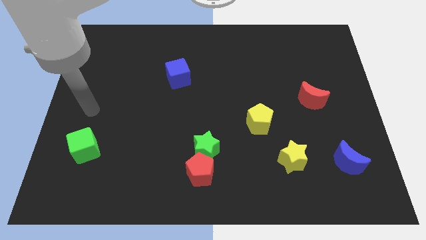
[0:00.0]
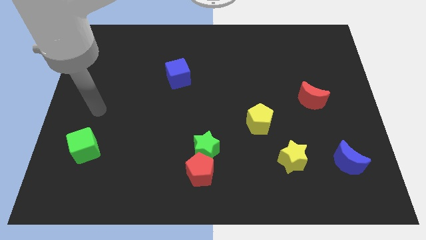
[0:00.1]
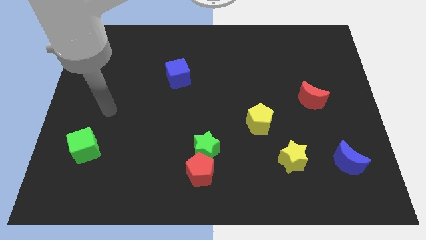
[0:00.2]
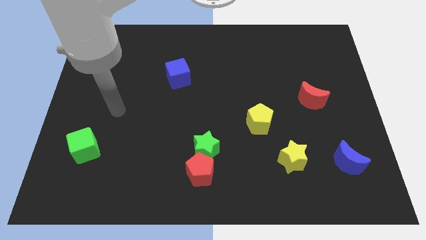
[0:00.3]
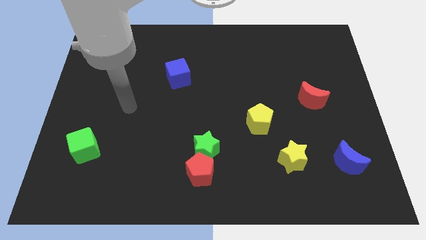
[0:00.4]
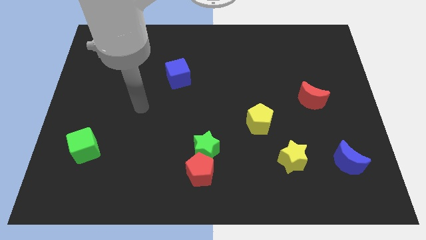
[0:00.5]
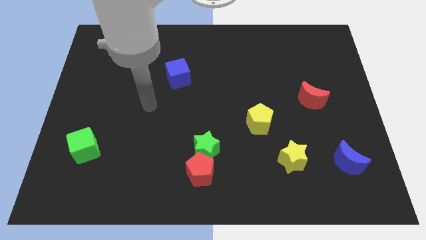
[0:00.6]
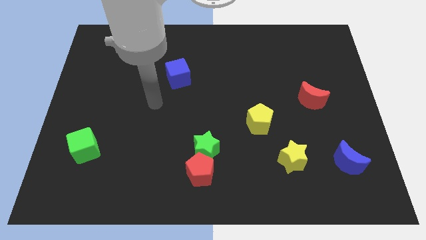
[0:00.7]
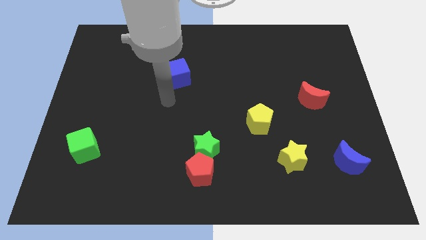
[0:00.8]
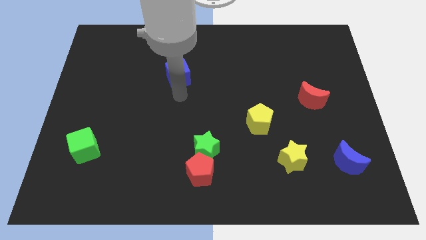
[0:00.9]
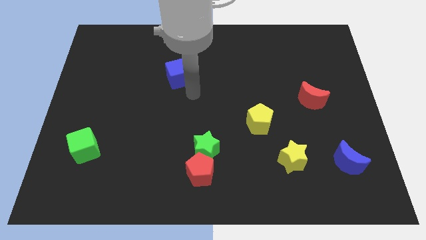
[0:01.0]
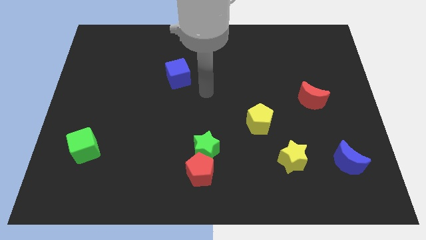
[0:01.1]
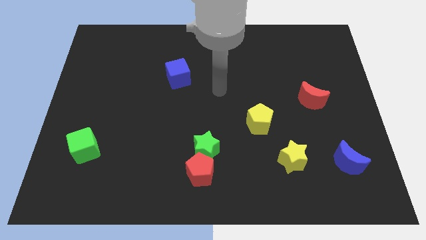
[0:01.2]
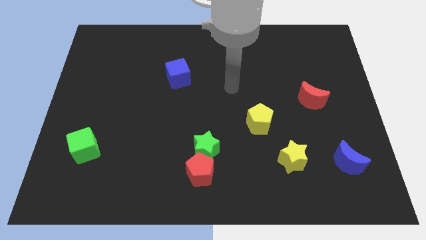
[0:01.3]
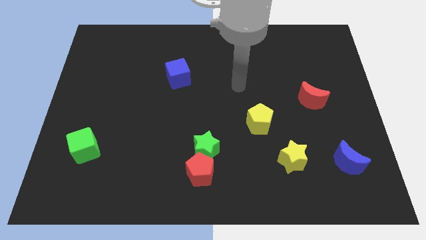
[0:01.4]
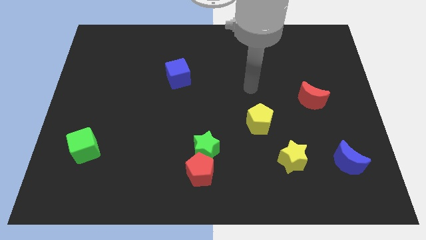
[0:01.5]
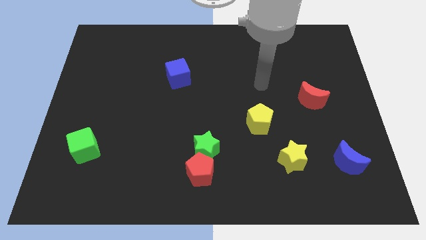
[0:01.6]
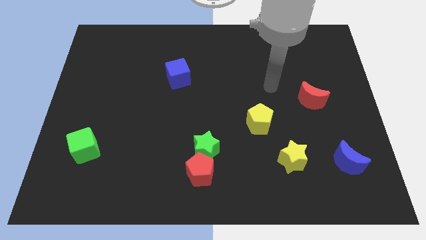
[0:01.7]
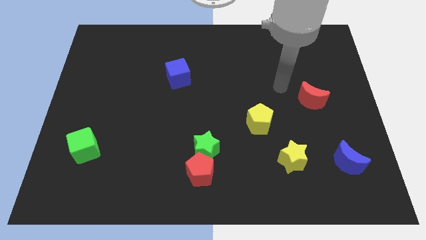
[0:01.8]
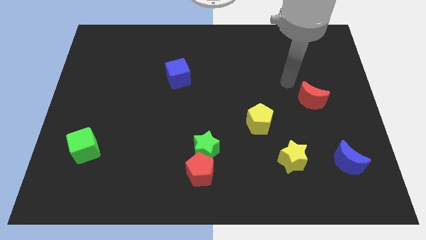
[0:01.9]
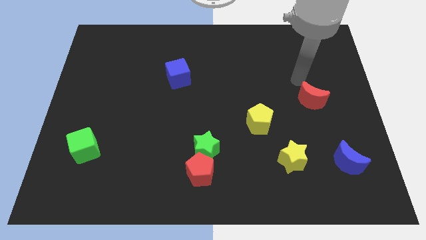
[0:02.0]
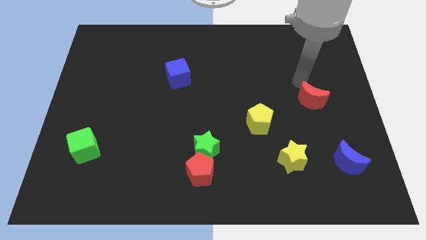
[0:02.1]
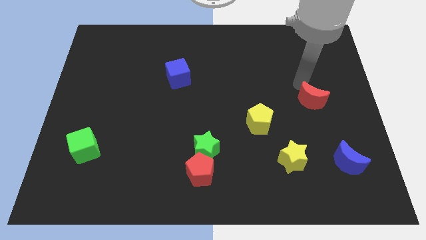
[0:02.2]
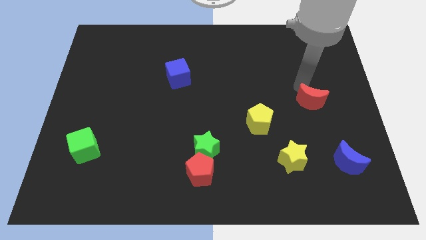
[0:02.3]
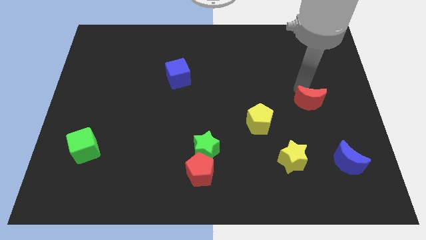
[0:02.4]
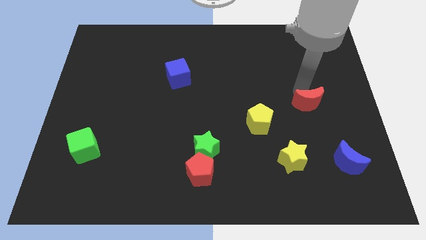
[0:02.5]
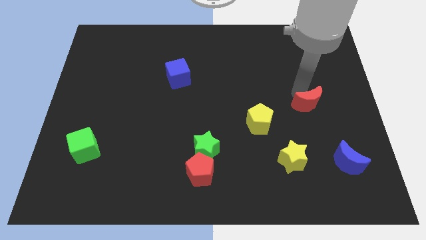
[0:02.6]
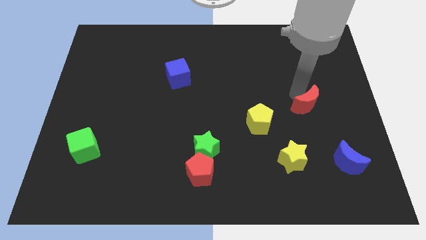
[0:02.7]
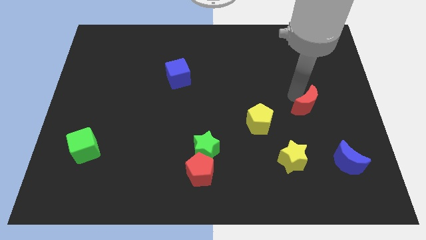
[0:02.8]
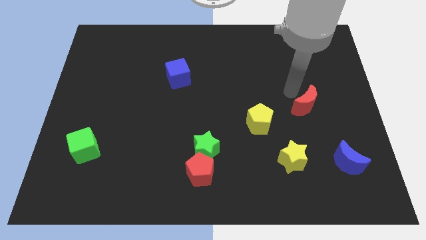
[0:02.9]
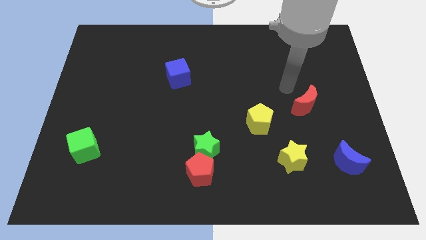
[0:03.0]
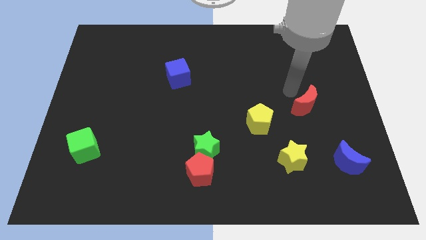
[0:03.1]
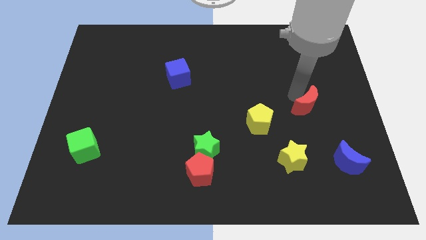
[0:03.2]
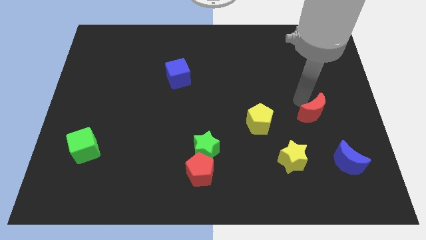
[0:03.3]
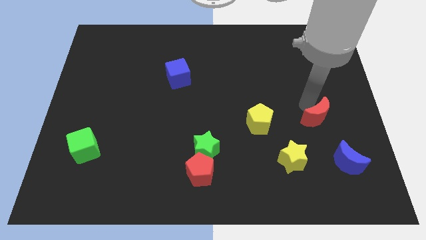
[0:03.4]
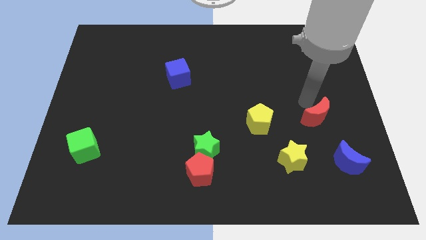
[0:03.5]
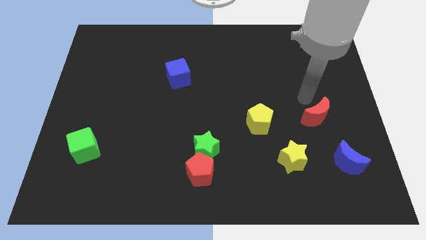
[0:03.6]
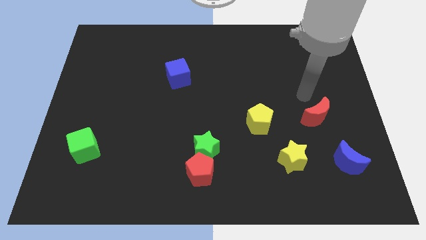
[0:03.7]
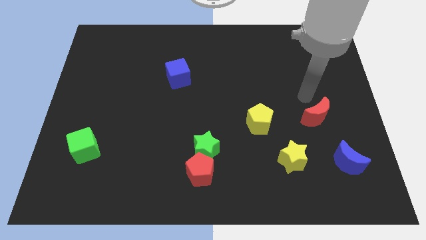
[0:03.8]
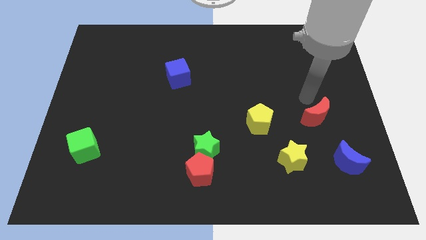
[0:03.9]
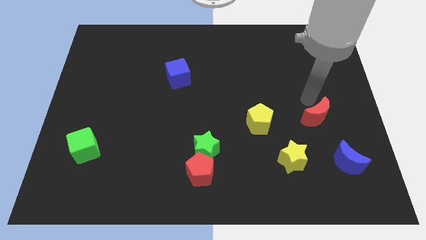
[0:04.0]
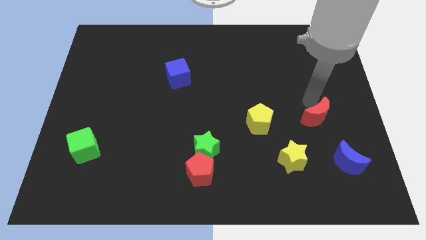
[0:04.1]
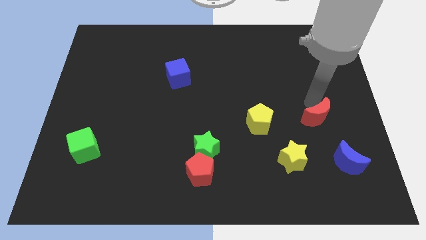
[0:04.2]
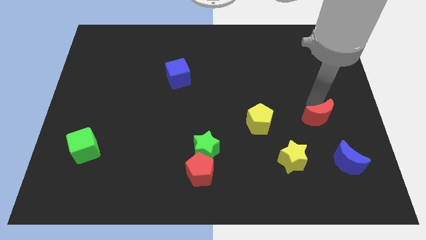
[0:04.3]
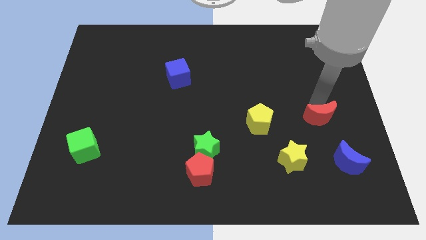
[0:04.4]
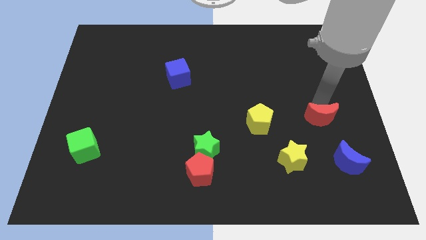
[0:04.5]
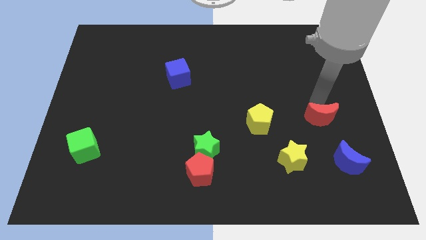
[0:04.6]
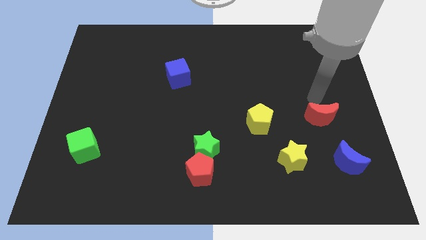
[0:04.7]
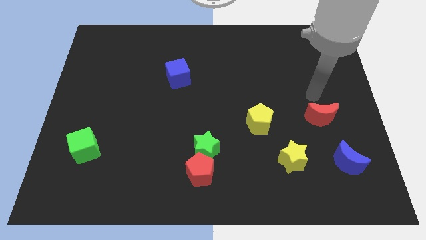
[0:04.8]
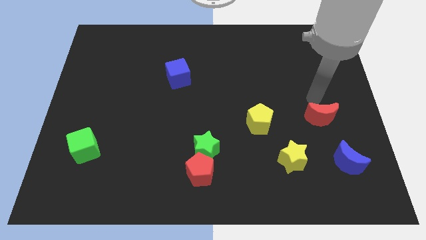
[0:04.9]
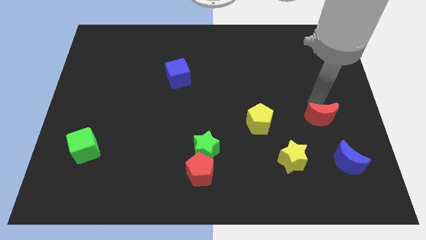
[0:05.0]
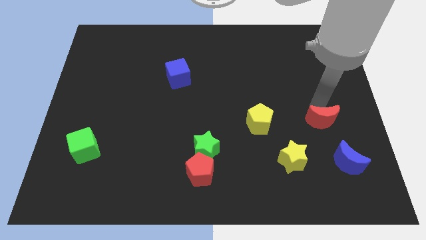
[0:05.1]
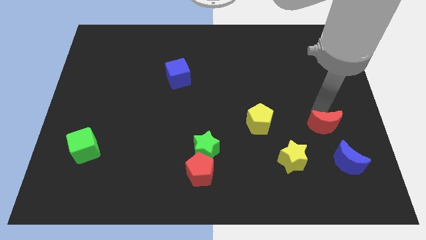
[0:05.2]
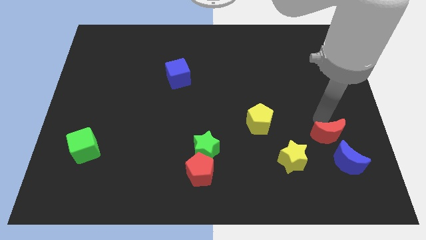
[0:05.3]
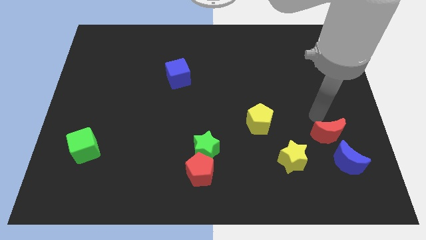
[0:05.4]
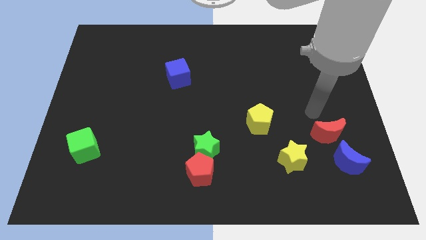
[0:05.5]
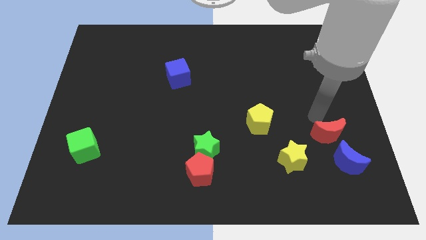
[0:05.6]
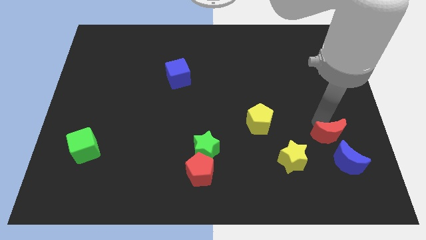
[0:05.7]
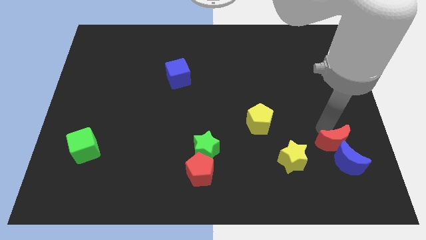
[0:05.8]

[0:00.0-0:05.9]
slide the red moon towards the blue moon

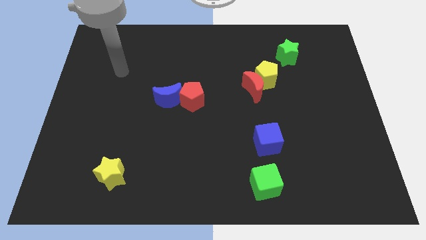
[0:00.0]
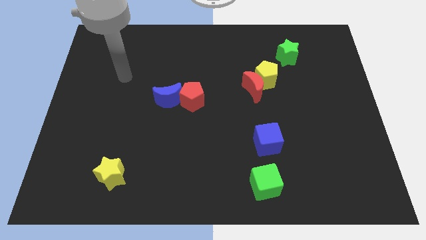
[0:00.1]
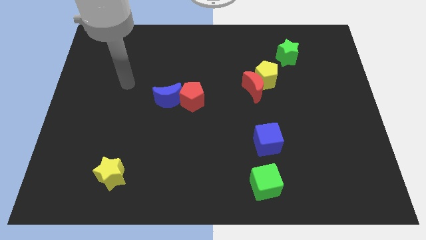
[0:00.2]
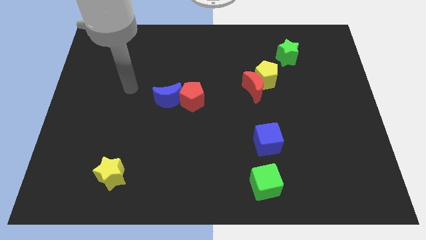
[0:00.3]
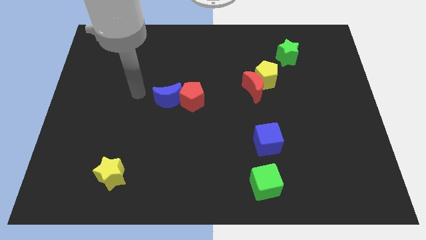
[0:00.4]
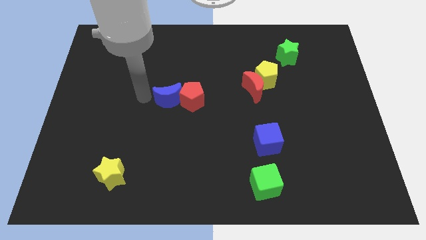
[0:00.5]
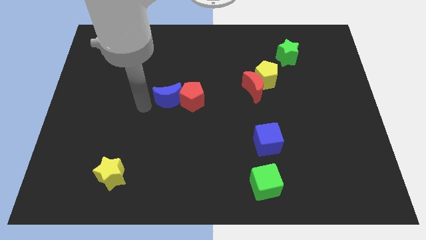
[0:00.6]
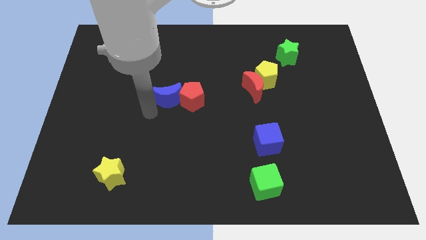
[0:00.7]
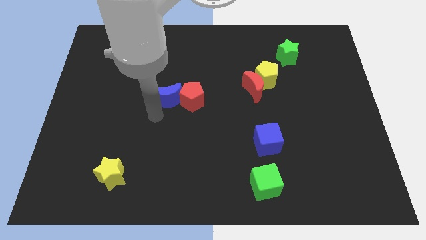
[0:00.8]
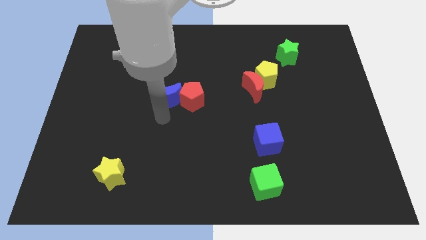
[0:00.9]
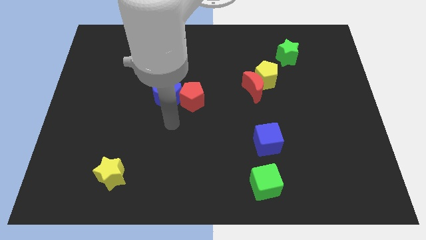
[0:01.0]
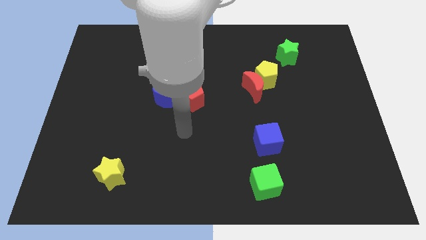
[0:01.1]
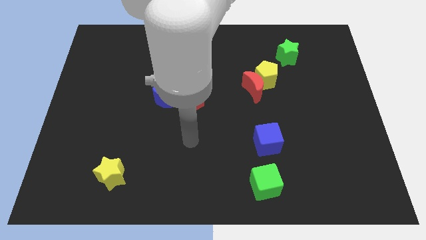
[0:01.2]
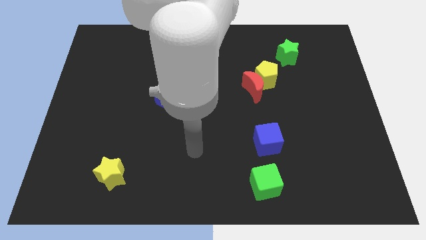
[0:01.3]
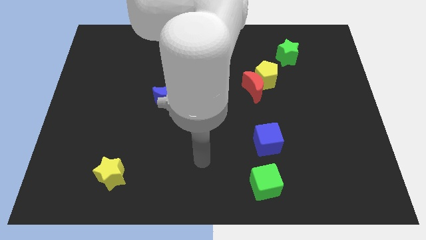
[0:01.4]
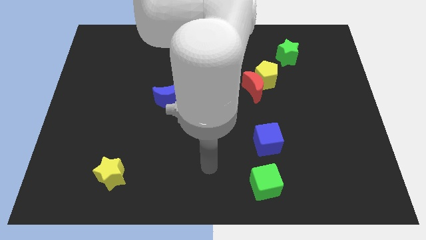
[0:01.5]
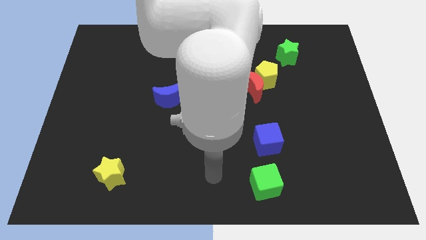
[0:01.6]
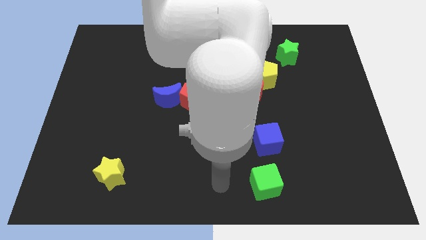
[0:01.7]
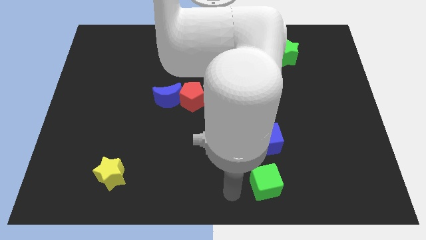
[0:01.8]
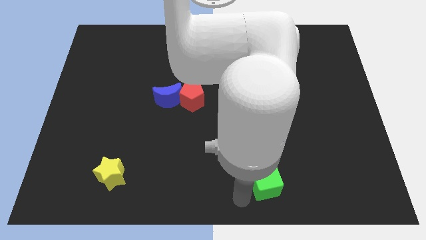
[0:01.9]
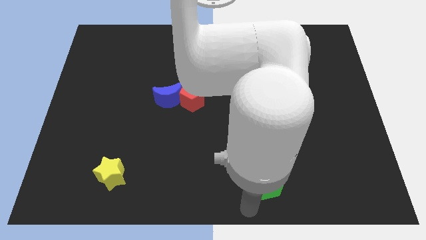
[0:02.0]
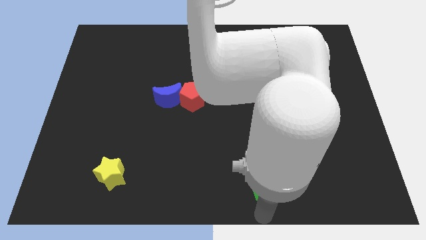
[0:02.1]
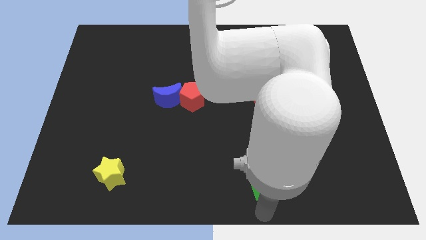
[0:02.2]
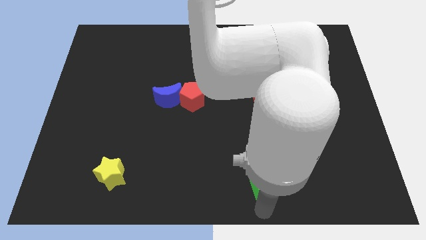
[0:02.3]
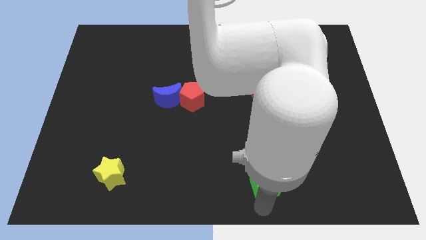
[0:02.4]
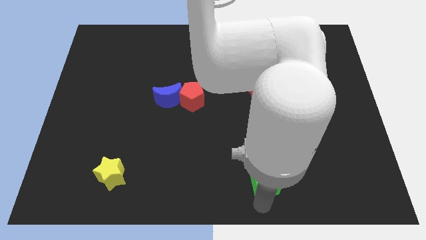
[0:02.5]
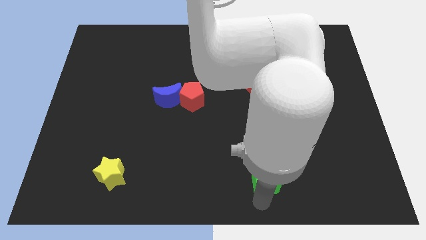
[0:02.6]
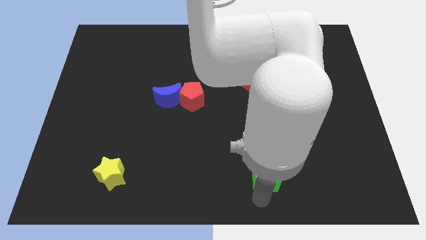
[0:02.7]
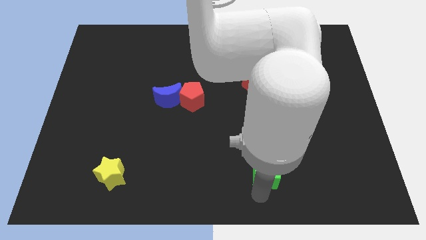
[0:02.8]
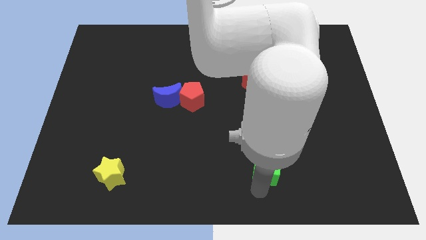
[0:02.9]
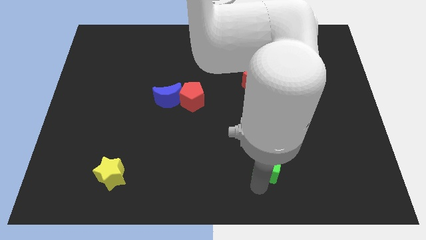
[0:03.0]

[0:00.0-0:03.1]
put the green cube next to the blue cube
